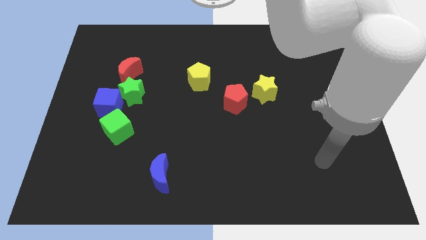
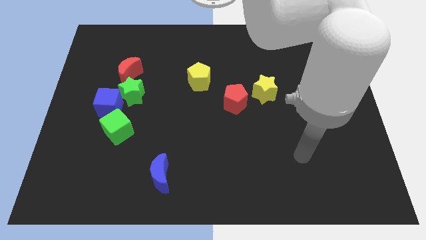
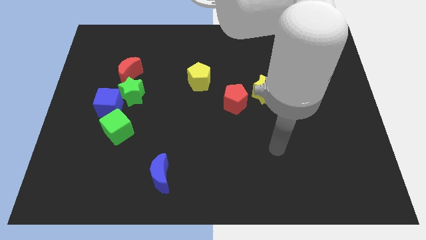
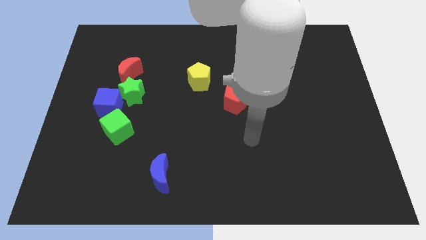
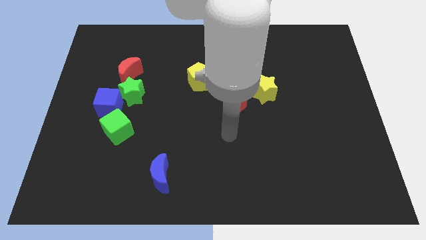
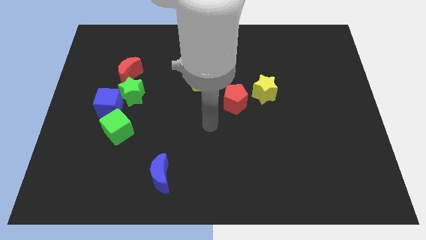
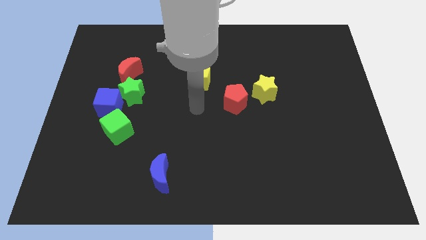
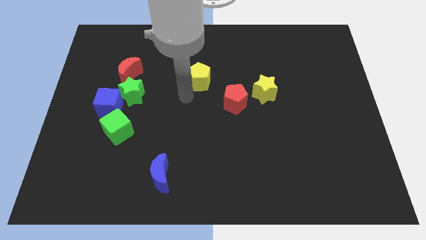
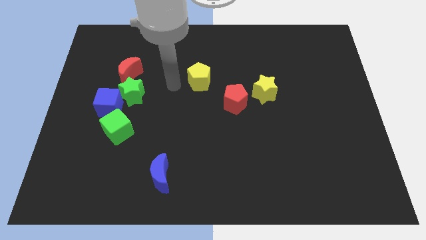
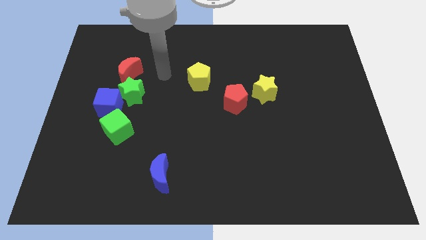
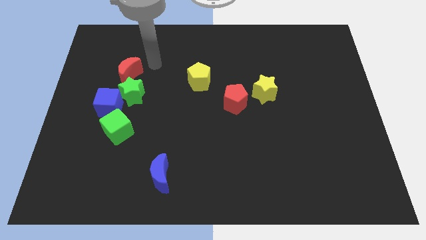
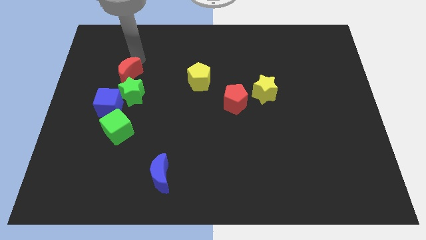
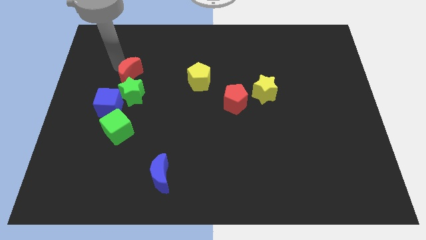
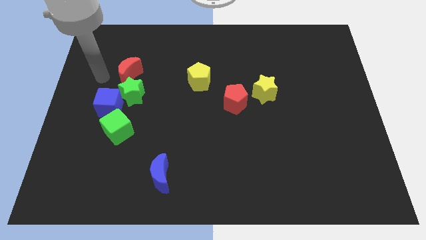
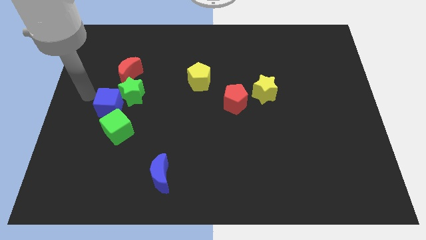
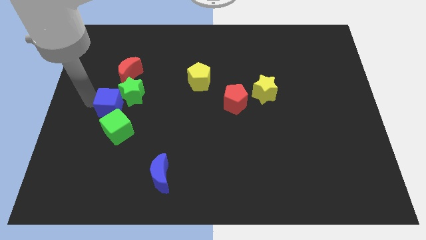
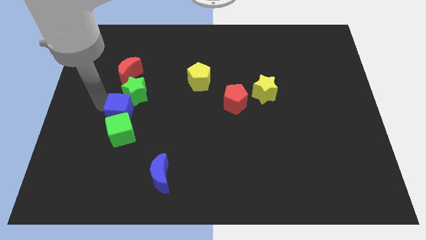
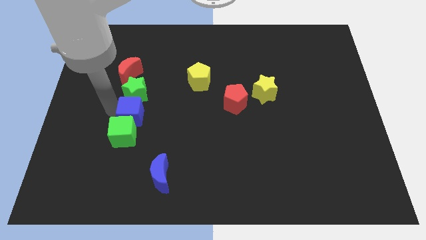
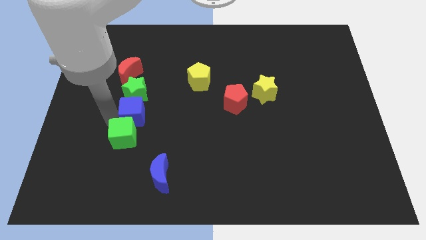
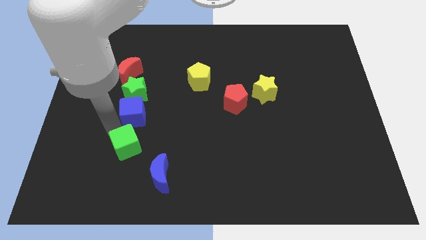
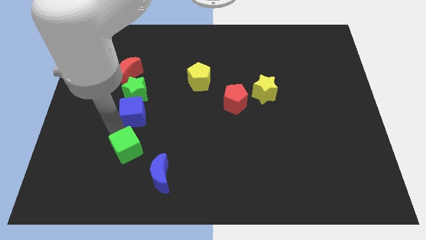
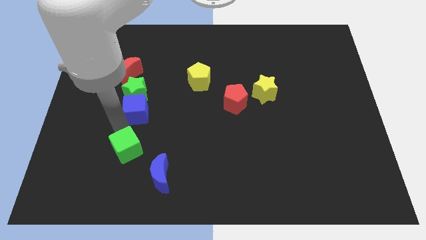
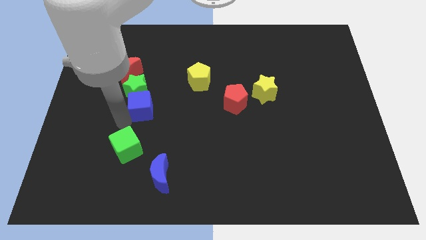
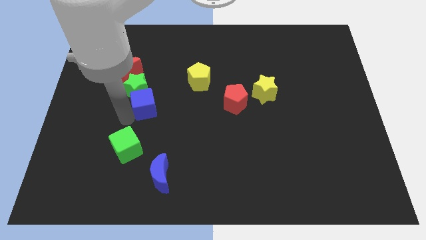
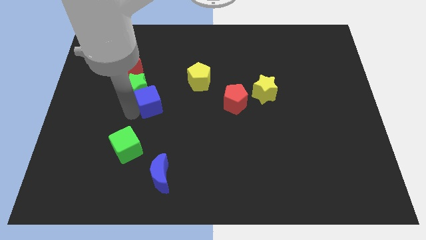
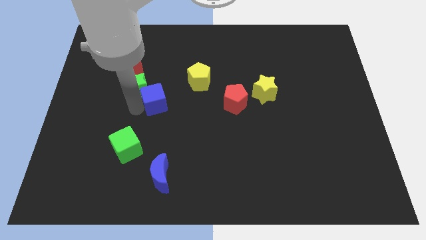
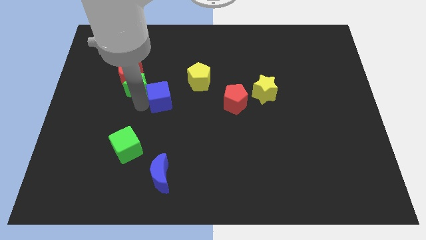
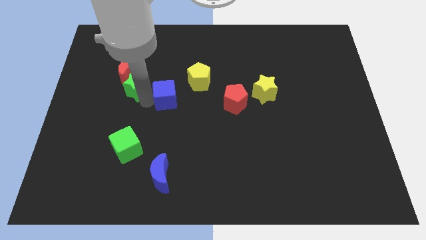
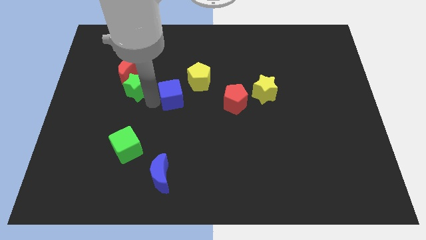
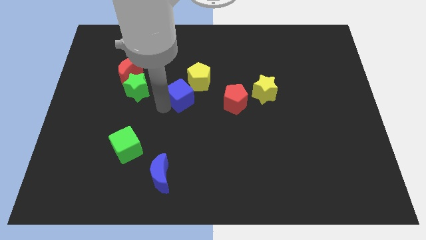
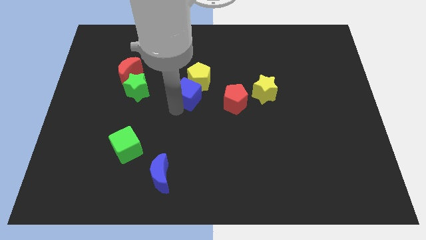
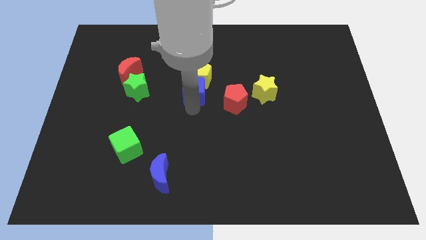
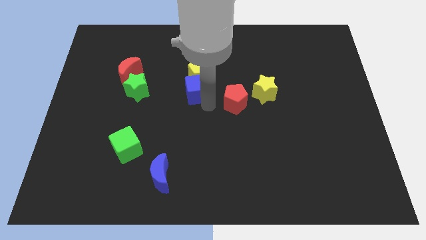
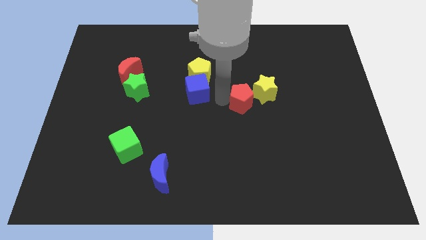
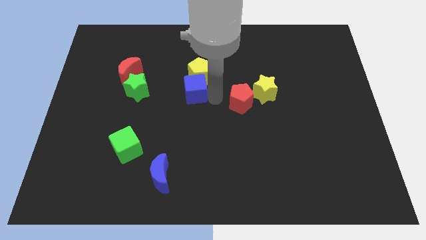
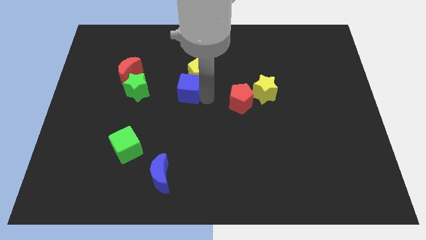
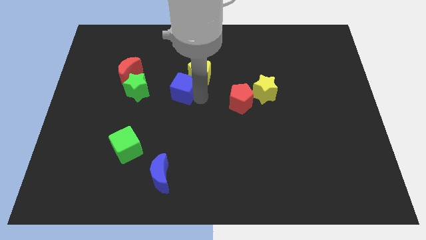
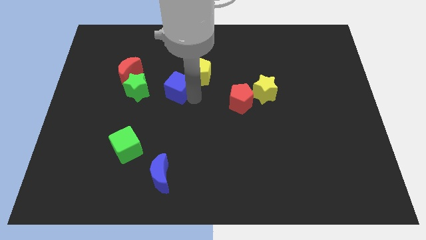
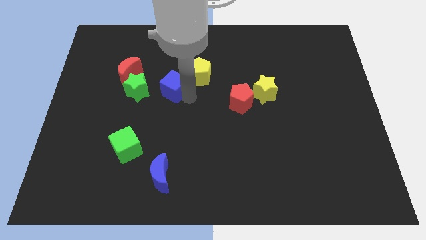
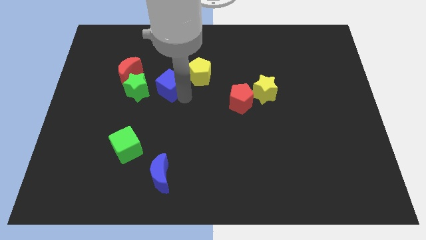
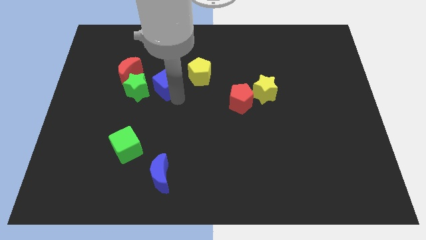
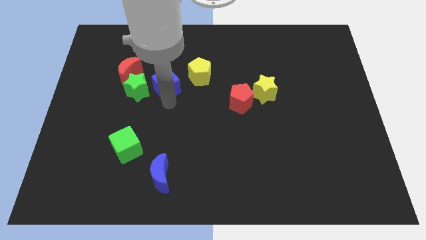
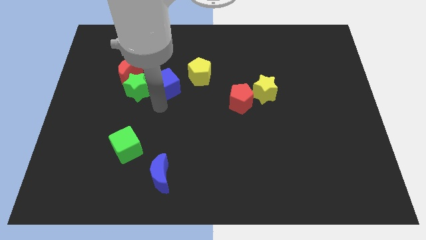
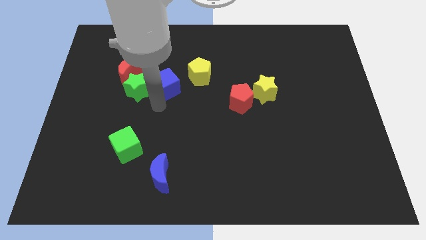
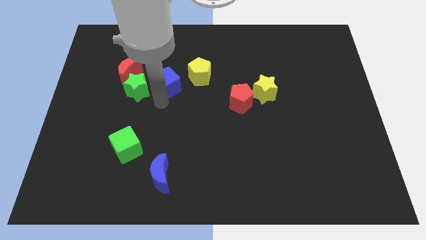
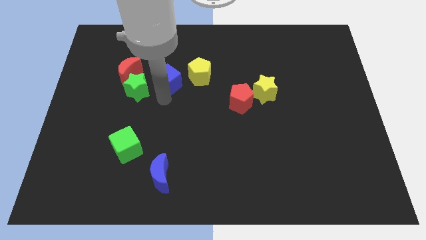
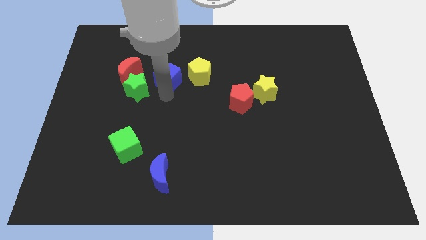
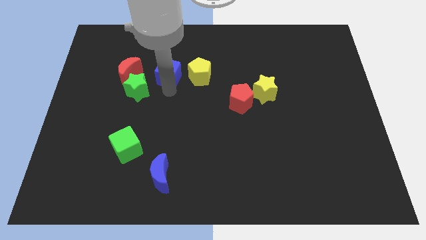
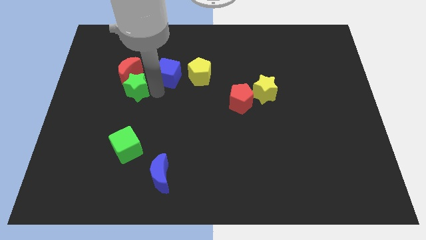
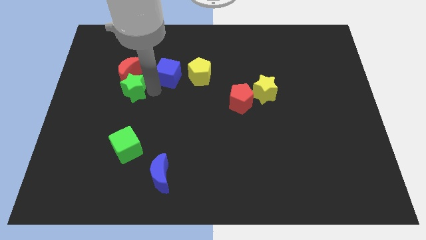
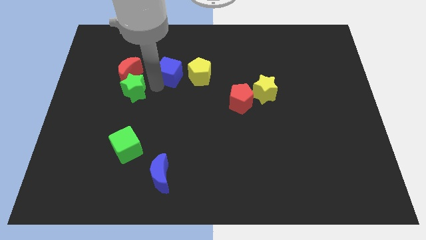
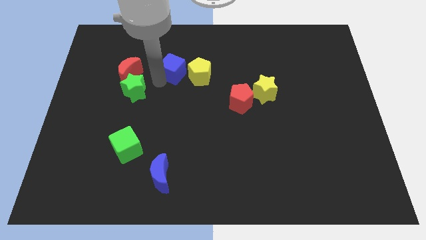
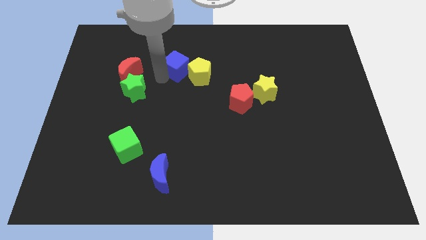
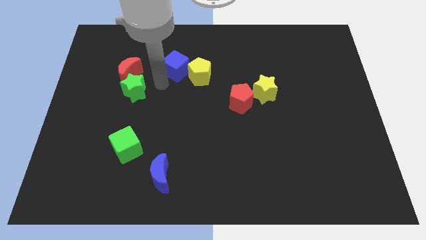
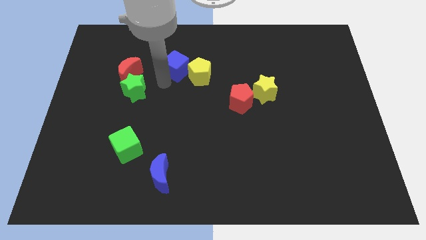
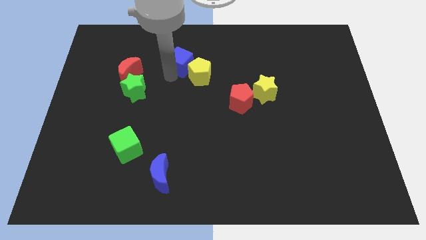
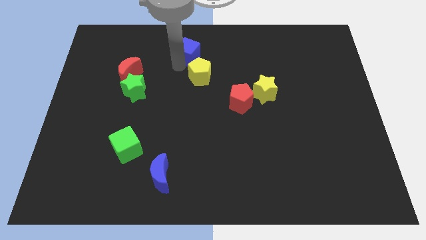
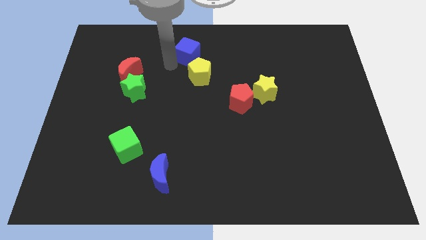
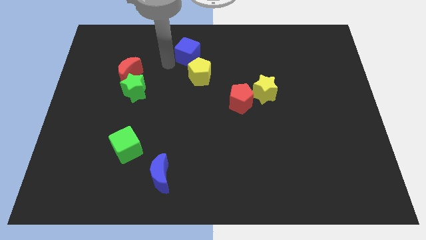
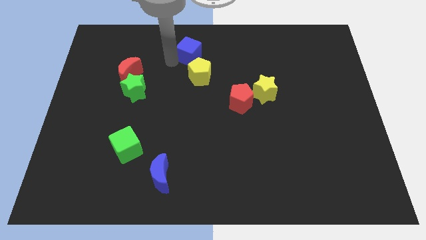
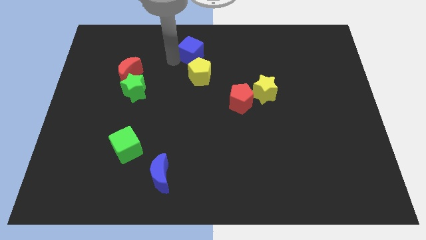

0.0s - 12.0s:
move the blue cube to the top
